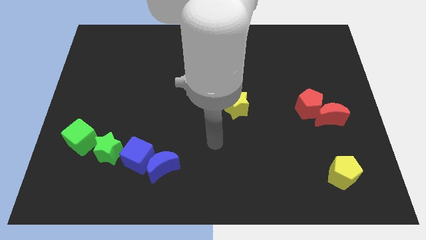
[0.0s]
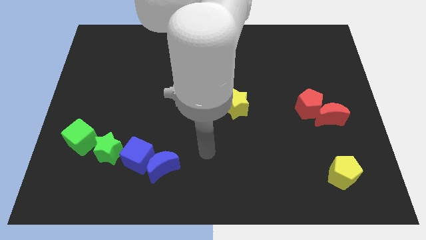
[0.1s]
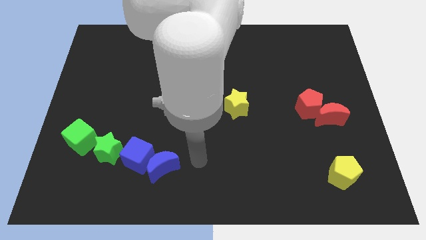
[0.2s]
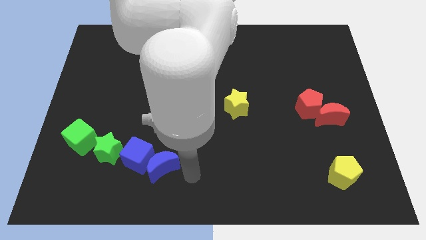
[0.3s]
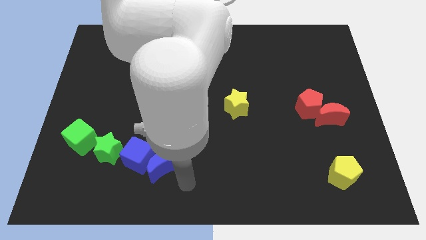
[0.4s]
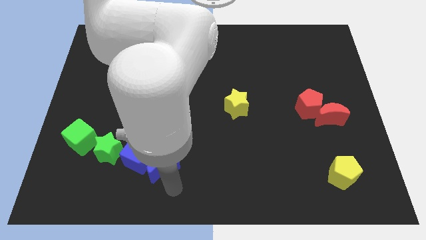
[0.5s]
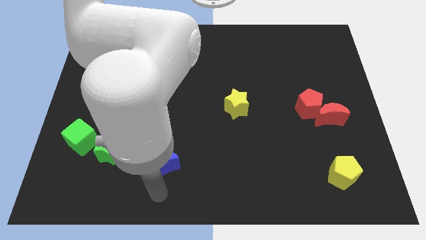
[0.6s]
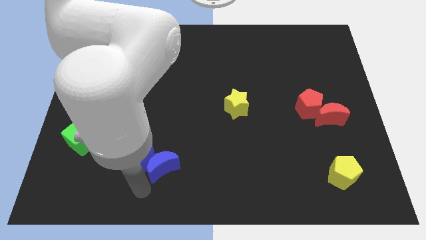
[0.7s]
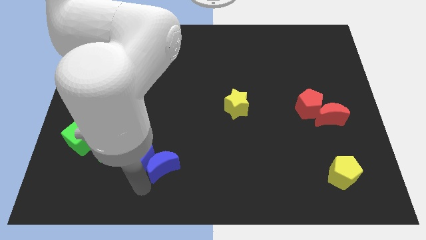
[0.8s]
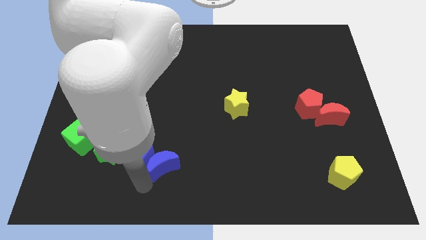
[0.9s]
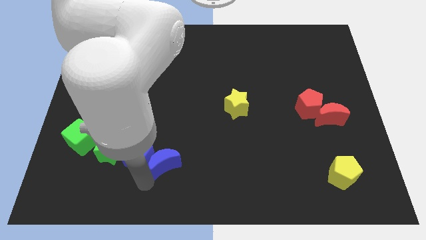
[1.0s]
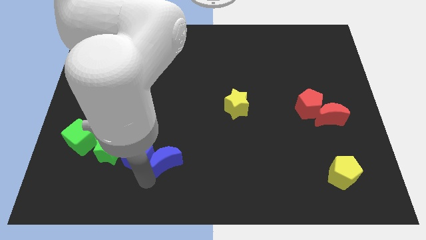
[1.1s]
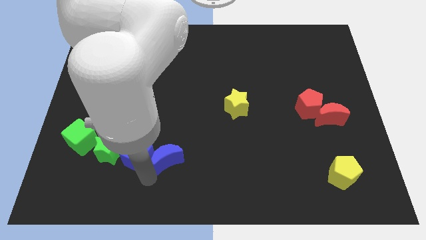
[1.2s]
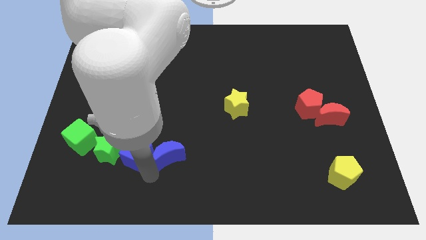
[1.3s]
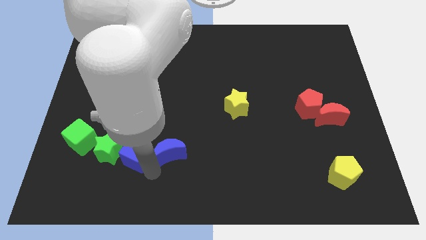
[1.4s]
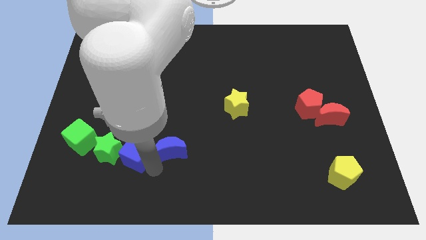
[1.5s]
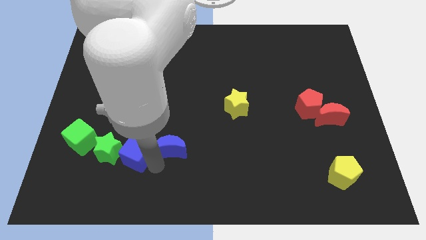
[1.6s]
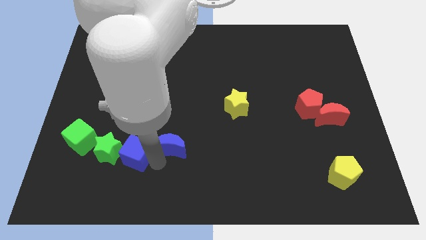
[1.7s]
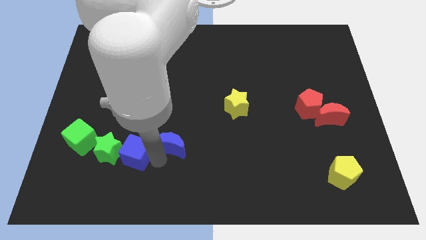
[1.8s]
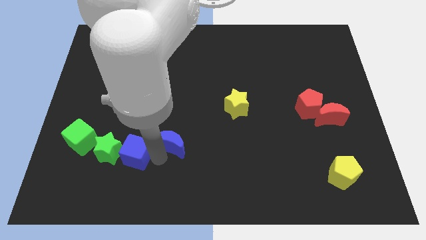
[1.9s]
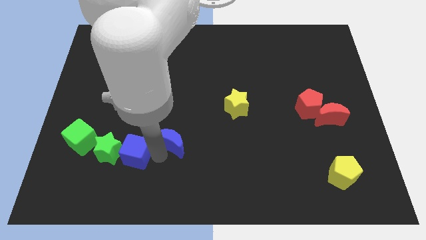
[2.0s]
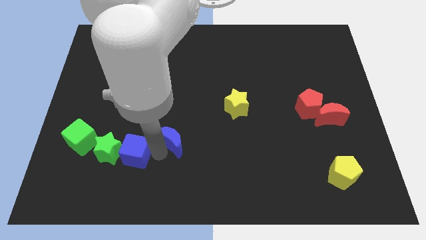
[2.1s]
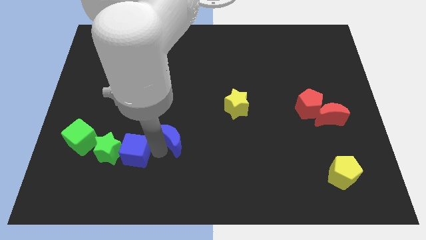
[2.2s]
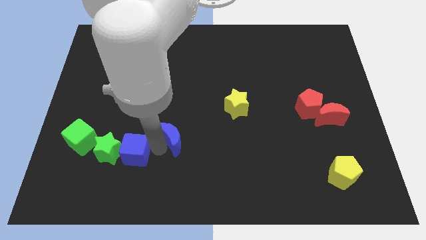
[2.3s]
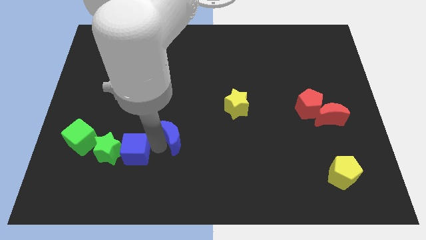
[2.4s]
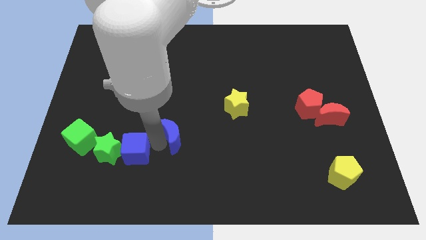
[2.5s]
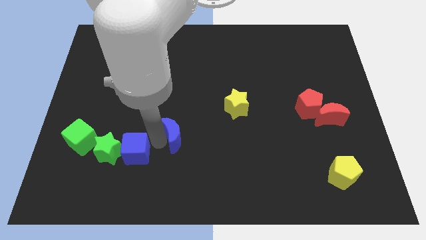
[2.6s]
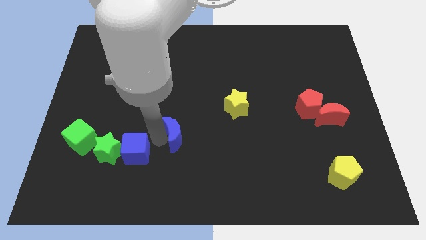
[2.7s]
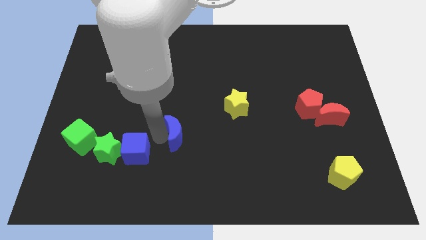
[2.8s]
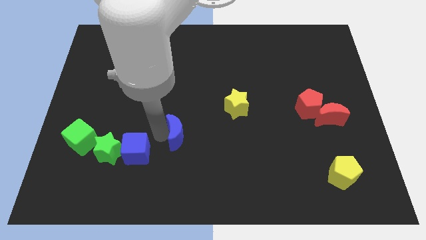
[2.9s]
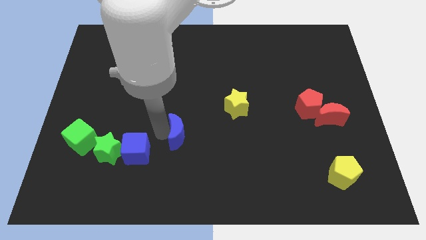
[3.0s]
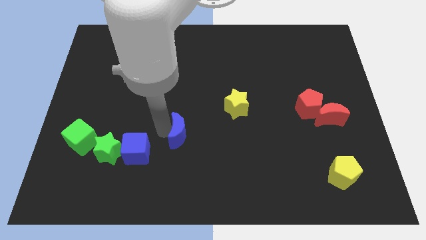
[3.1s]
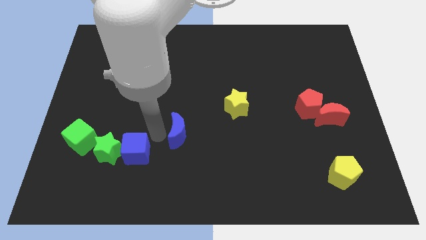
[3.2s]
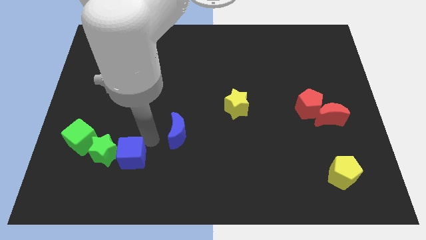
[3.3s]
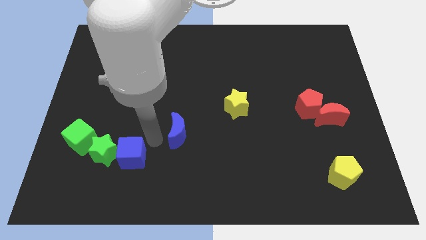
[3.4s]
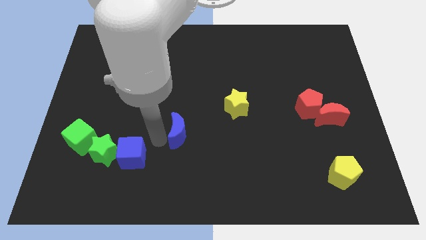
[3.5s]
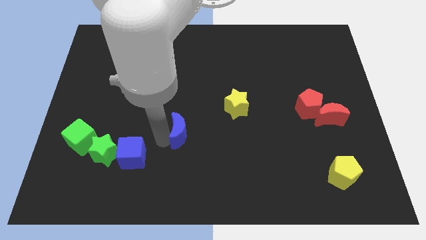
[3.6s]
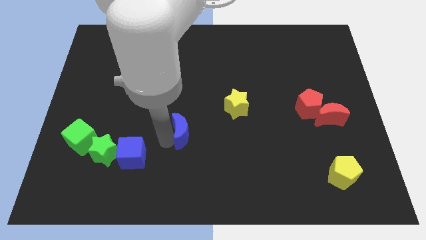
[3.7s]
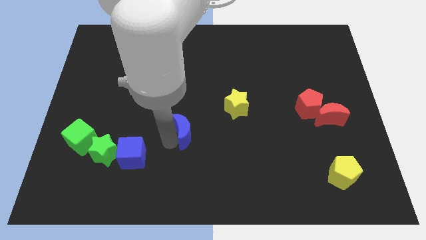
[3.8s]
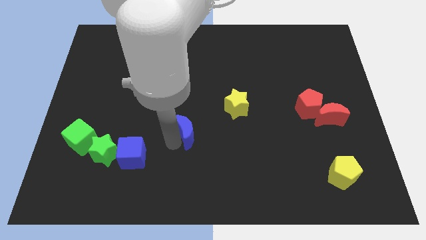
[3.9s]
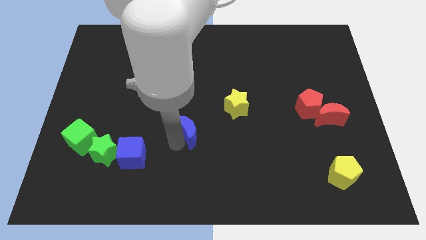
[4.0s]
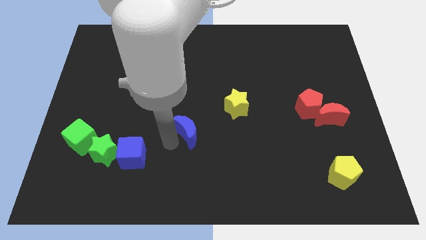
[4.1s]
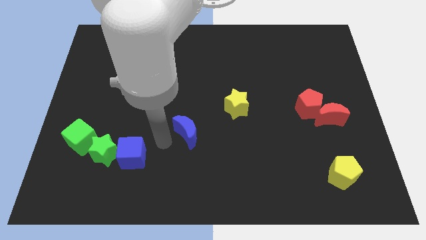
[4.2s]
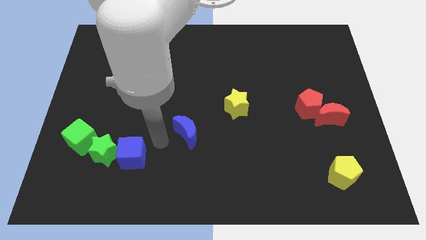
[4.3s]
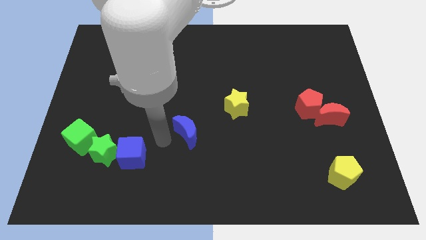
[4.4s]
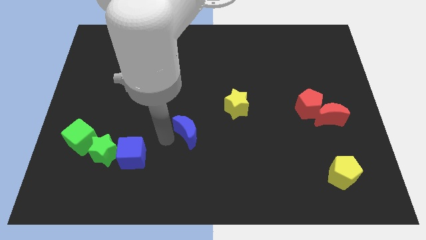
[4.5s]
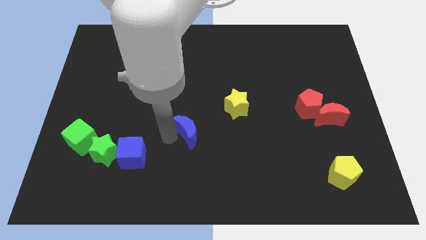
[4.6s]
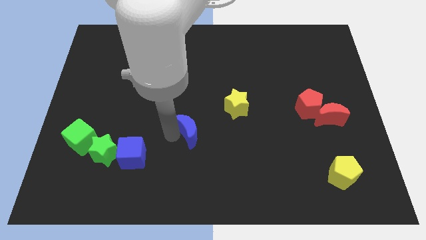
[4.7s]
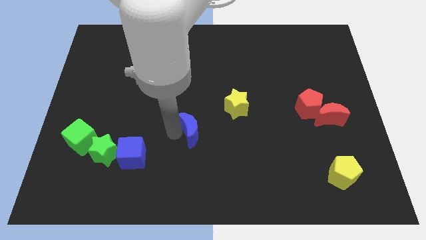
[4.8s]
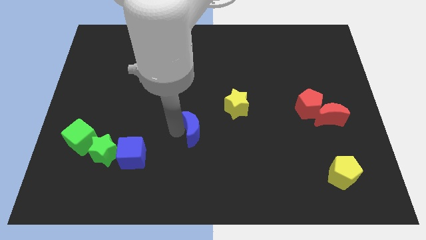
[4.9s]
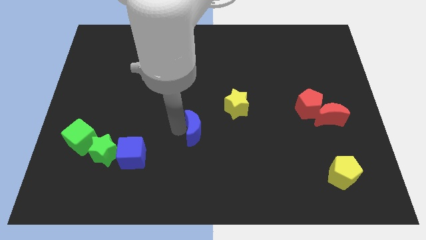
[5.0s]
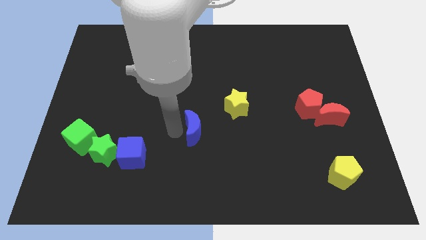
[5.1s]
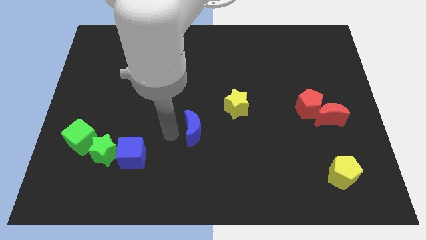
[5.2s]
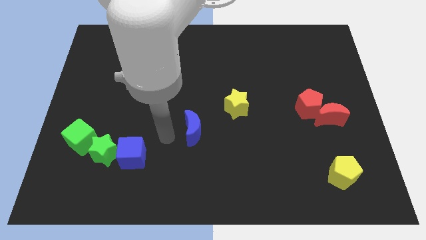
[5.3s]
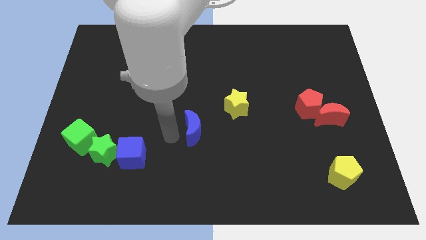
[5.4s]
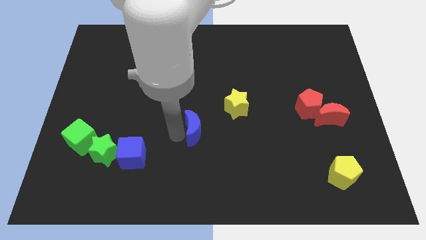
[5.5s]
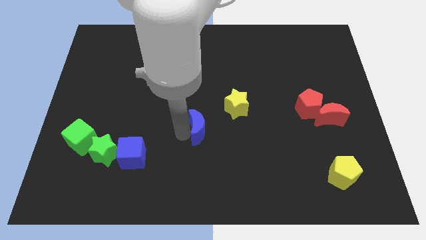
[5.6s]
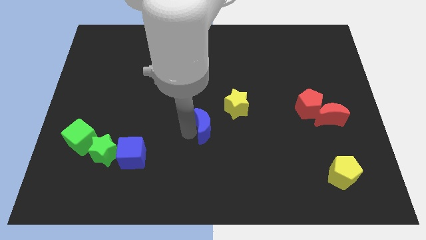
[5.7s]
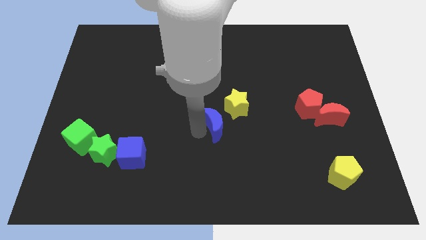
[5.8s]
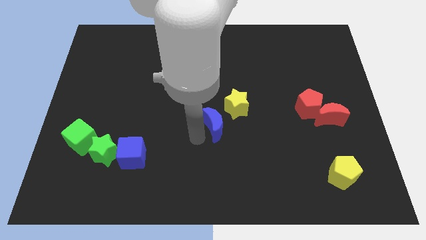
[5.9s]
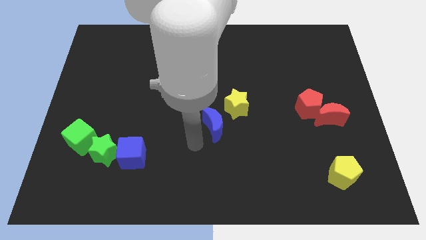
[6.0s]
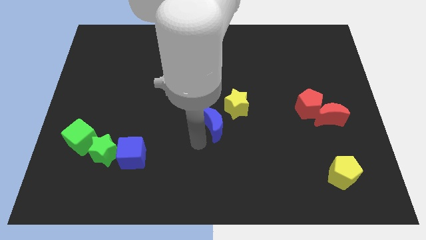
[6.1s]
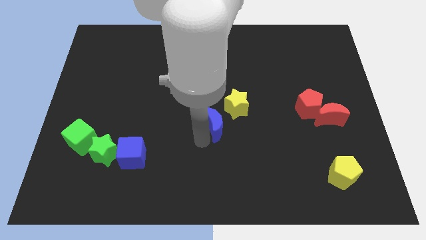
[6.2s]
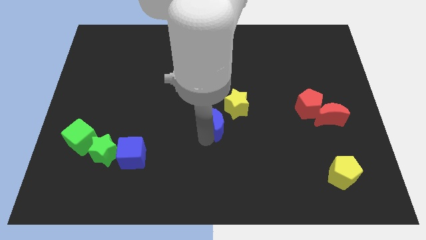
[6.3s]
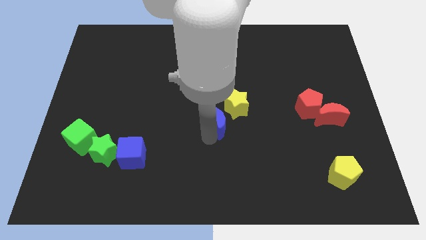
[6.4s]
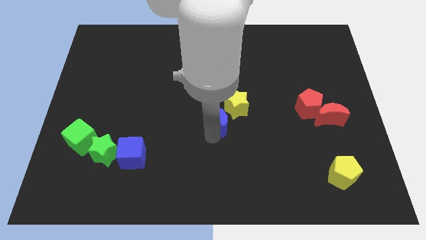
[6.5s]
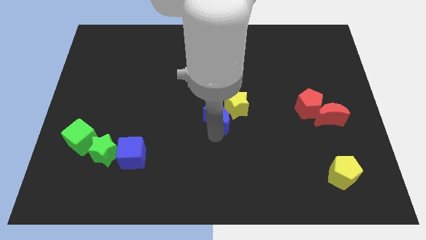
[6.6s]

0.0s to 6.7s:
move the blue moon towards the yellow star

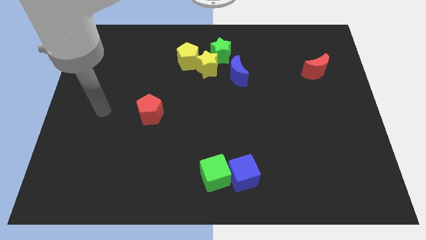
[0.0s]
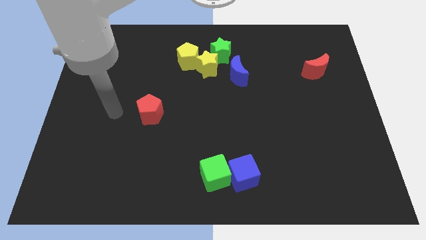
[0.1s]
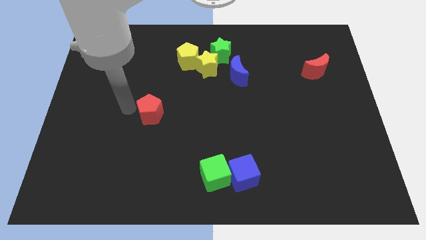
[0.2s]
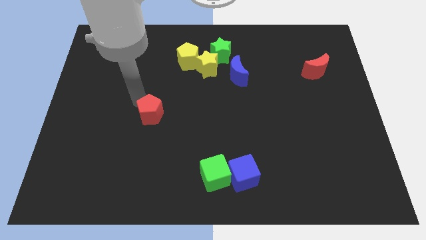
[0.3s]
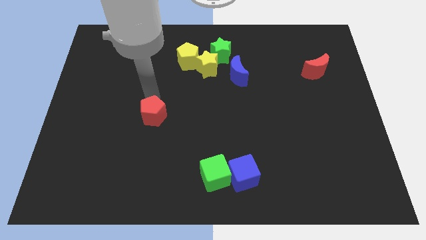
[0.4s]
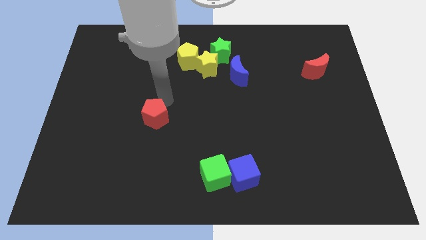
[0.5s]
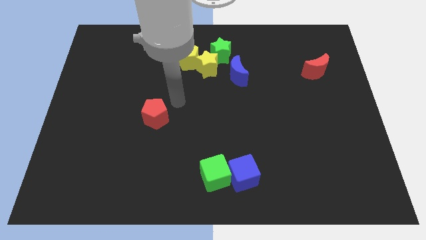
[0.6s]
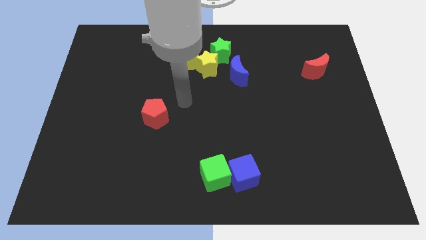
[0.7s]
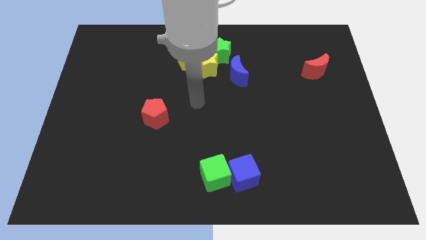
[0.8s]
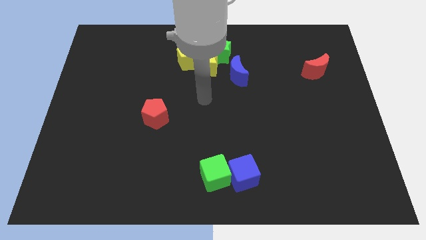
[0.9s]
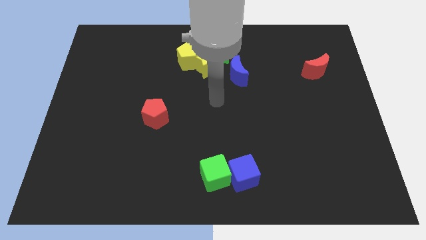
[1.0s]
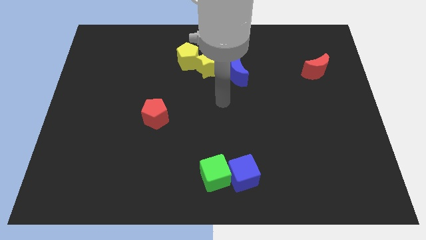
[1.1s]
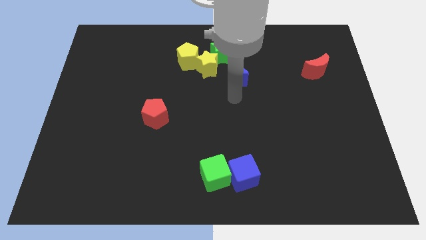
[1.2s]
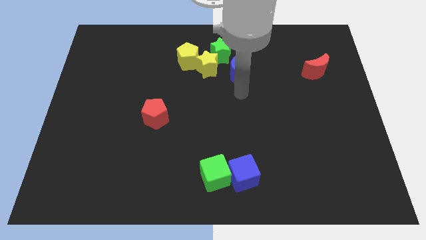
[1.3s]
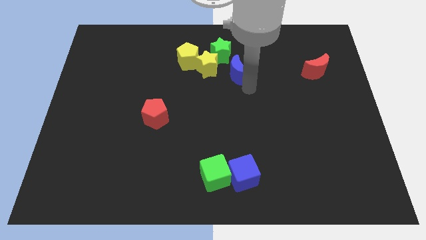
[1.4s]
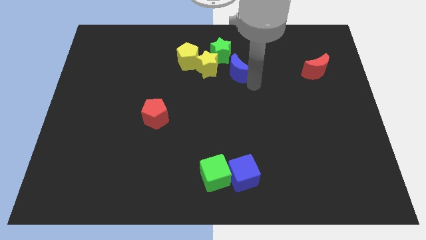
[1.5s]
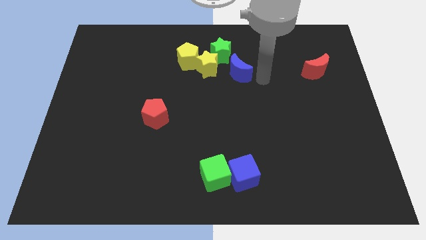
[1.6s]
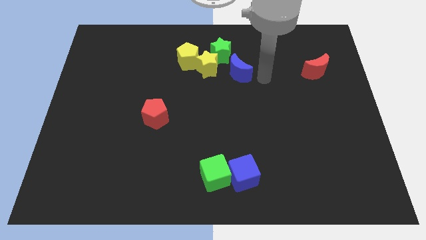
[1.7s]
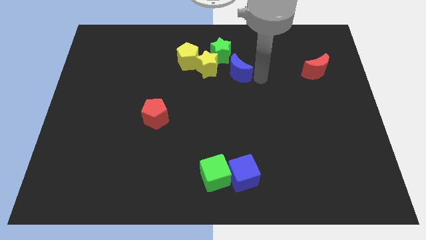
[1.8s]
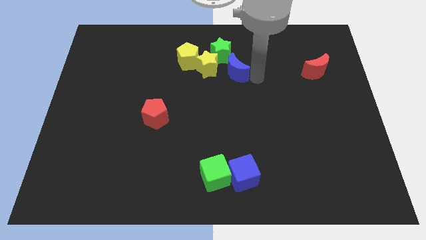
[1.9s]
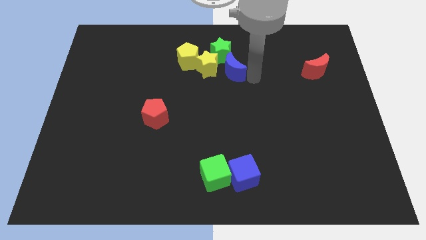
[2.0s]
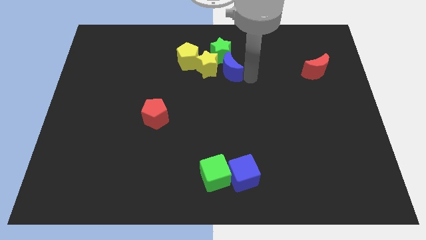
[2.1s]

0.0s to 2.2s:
move the blue moon to the yellow star
